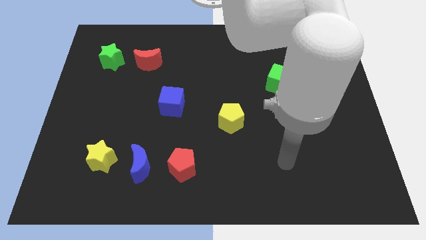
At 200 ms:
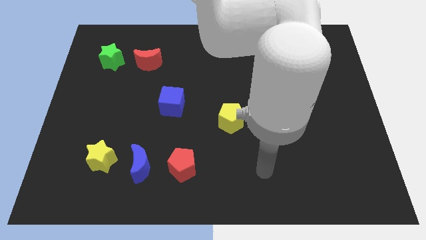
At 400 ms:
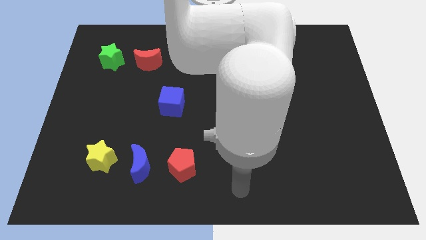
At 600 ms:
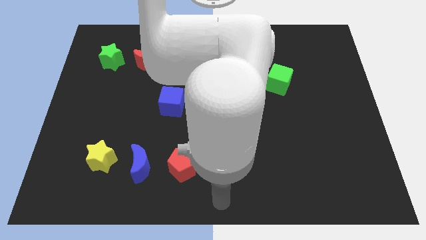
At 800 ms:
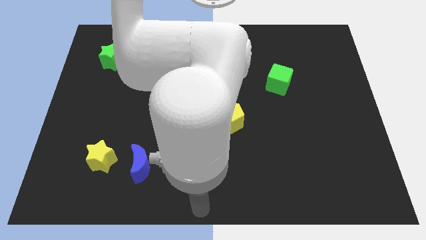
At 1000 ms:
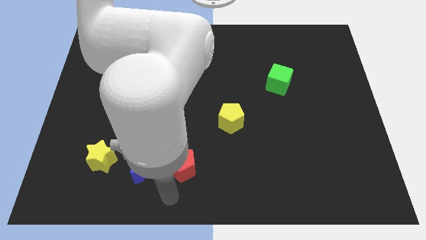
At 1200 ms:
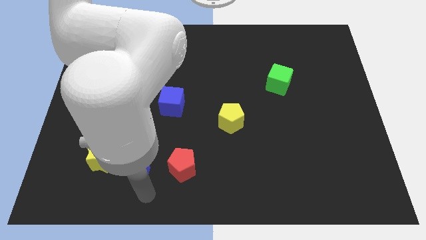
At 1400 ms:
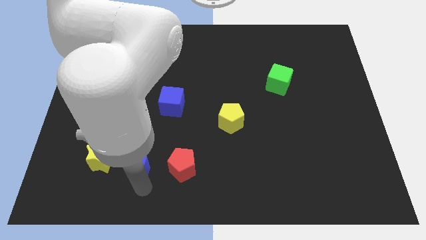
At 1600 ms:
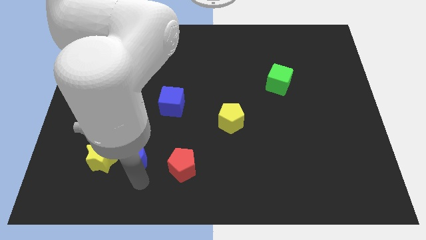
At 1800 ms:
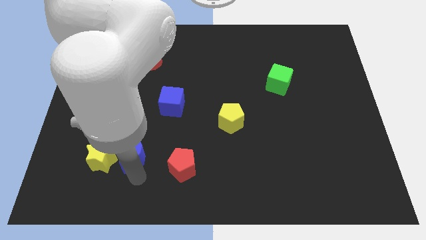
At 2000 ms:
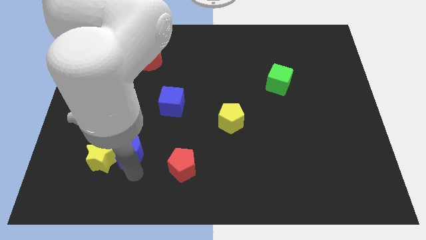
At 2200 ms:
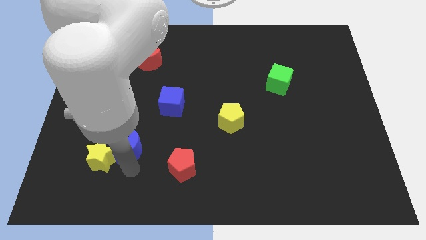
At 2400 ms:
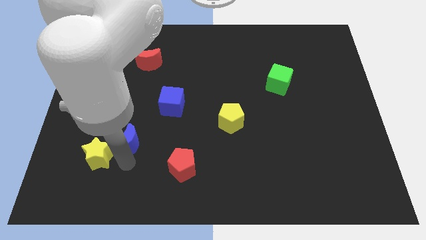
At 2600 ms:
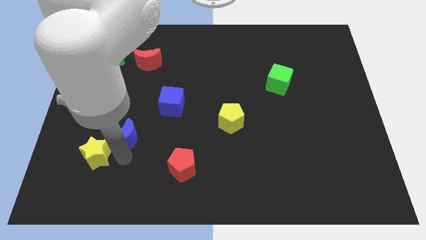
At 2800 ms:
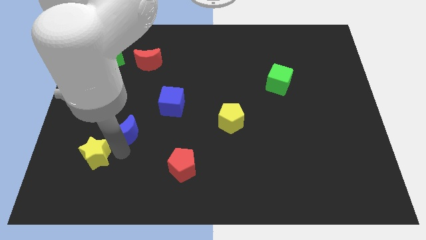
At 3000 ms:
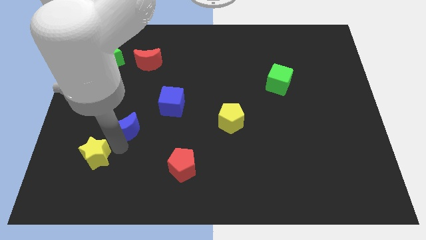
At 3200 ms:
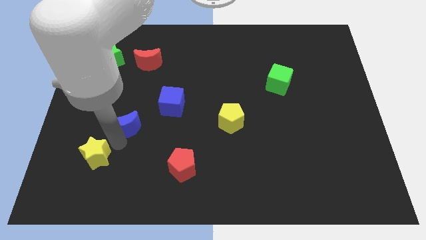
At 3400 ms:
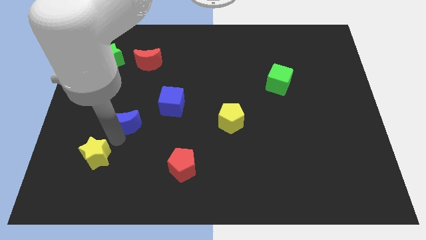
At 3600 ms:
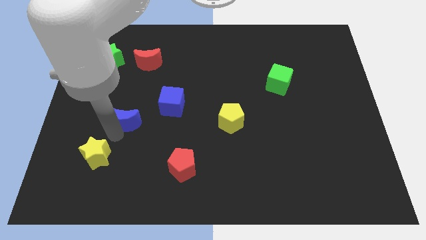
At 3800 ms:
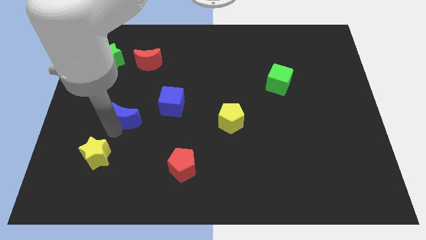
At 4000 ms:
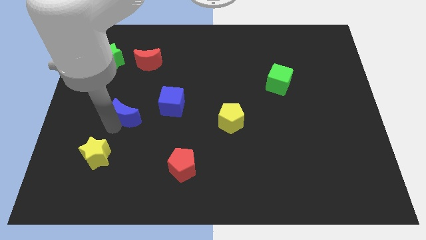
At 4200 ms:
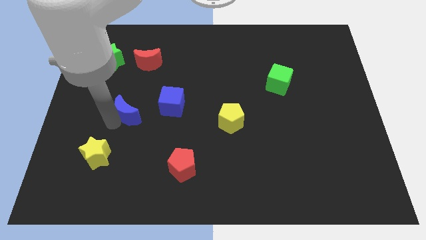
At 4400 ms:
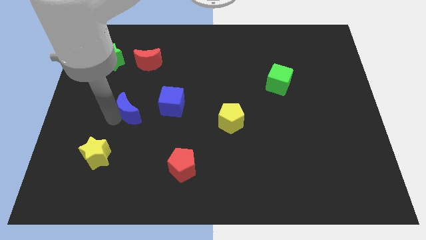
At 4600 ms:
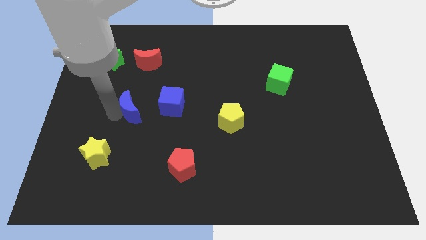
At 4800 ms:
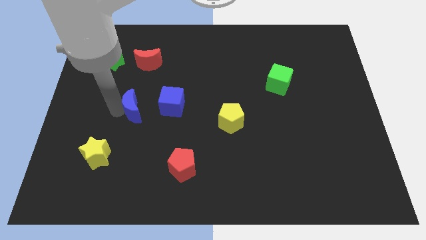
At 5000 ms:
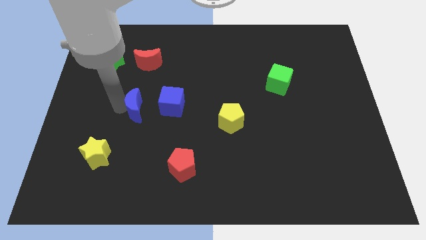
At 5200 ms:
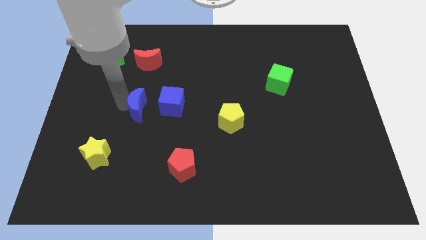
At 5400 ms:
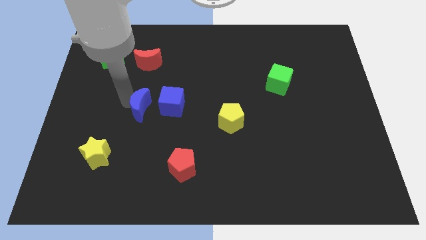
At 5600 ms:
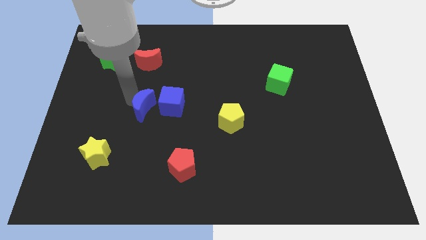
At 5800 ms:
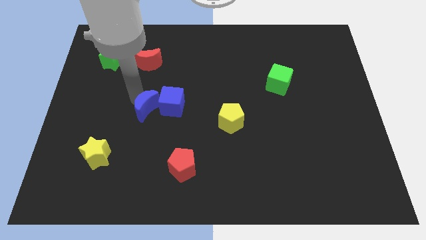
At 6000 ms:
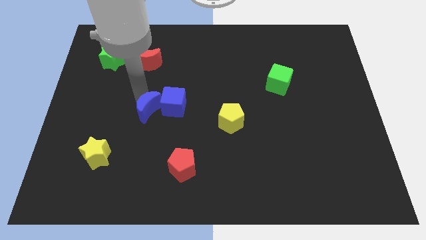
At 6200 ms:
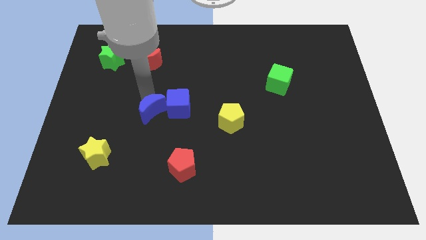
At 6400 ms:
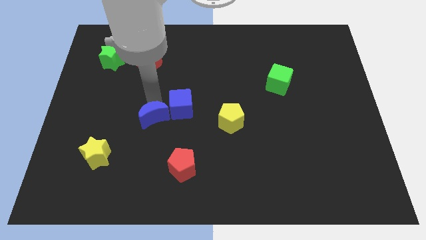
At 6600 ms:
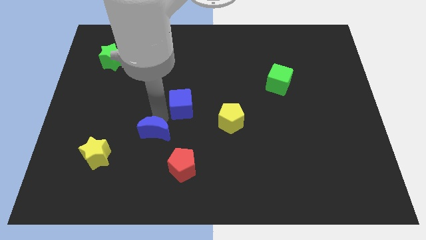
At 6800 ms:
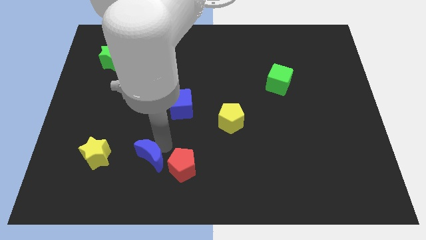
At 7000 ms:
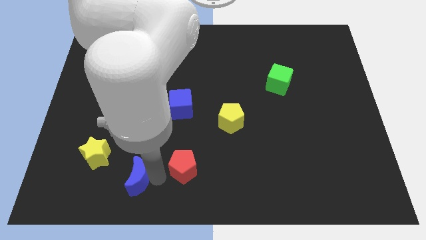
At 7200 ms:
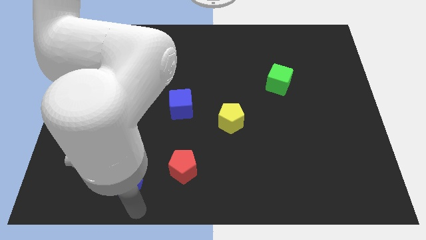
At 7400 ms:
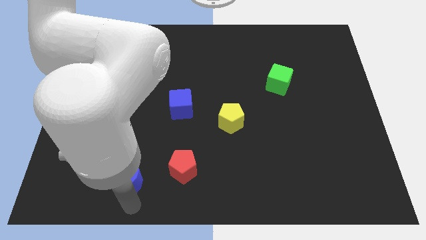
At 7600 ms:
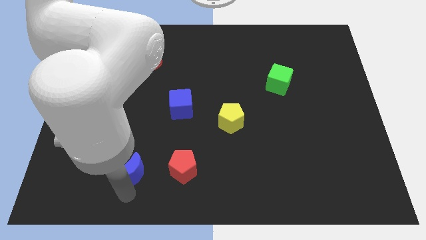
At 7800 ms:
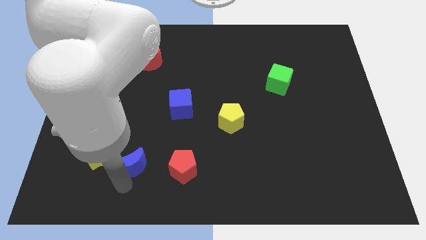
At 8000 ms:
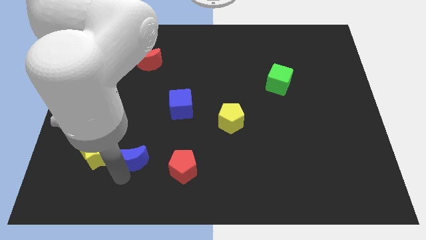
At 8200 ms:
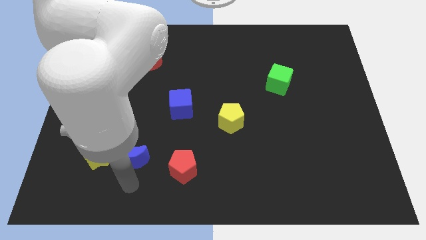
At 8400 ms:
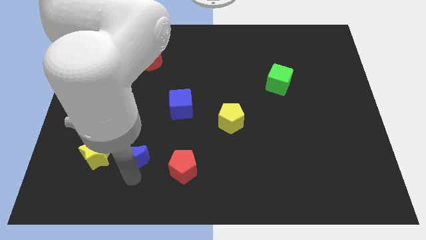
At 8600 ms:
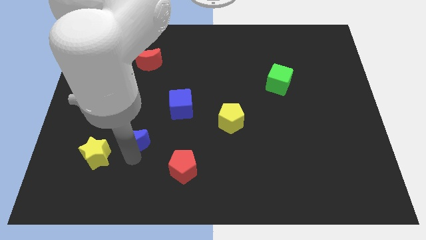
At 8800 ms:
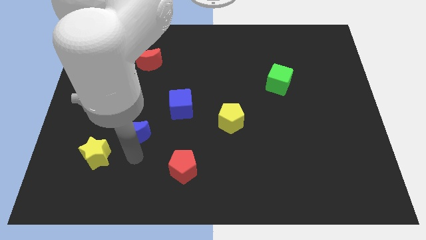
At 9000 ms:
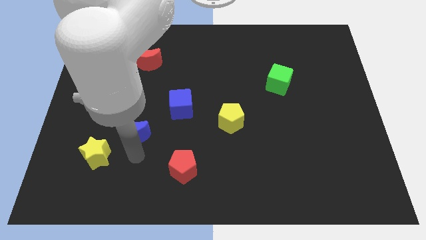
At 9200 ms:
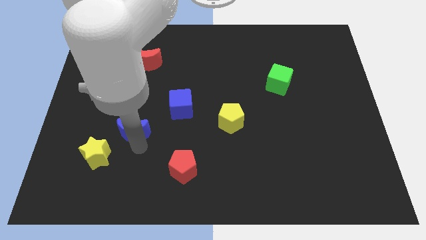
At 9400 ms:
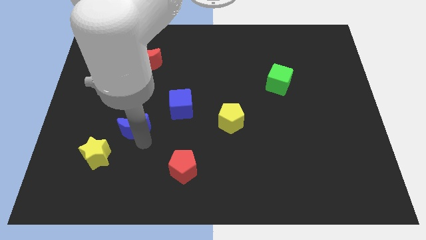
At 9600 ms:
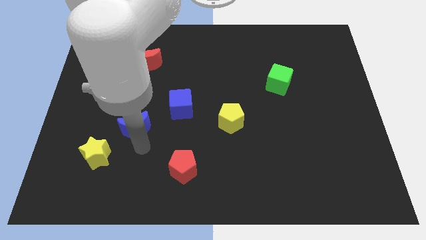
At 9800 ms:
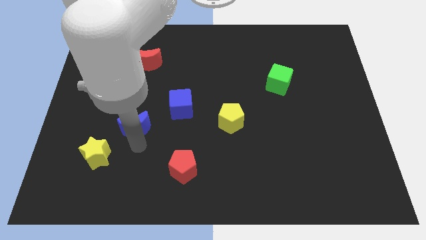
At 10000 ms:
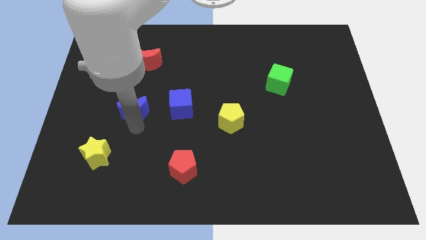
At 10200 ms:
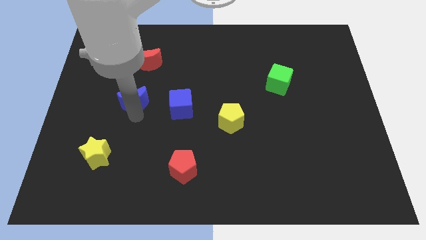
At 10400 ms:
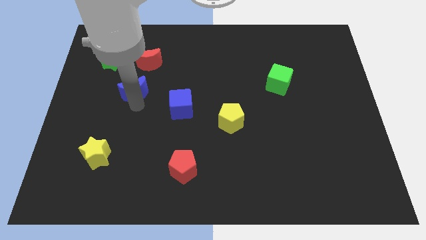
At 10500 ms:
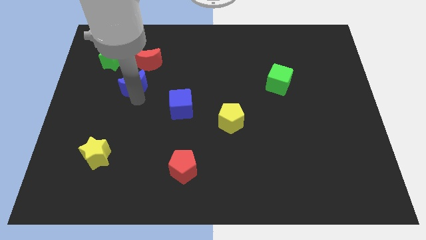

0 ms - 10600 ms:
slide the blue moon to the bottom left of the red moon

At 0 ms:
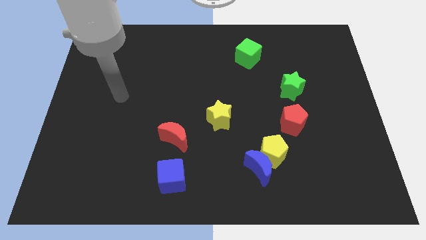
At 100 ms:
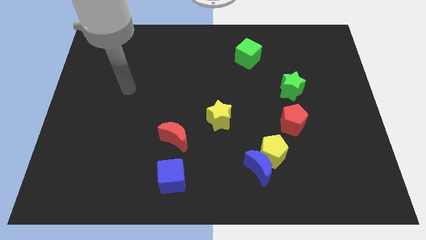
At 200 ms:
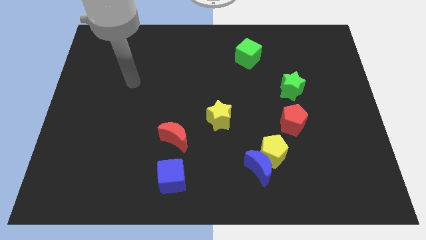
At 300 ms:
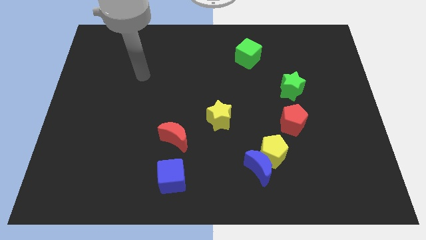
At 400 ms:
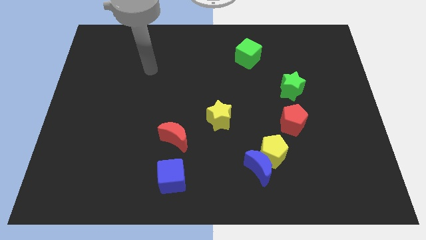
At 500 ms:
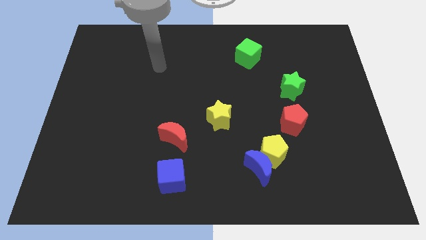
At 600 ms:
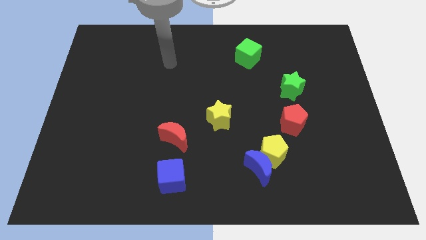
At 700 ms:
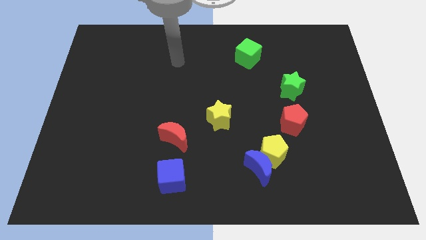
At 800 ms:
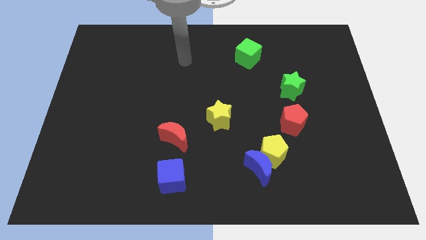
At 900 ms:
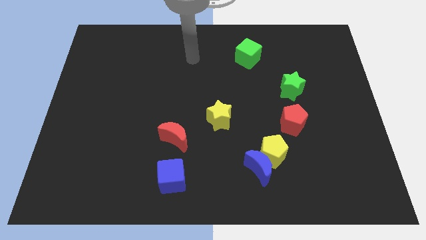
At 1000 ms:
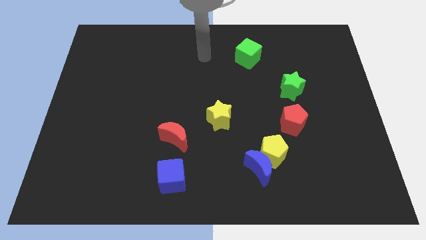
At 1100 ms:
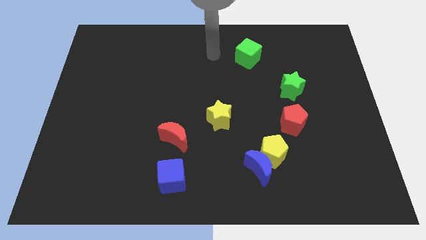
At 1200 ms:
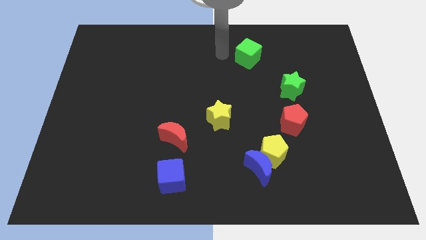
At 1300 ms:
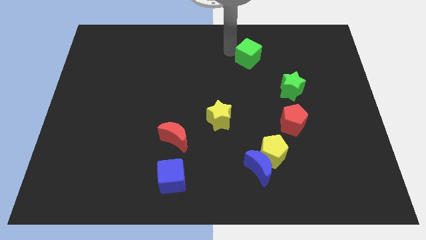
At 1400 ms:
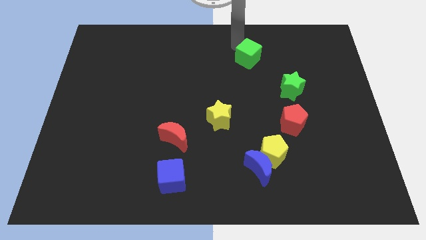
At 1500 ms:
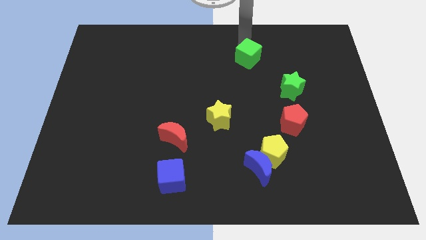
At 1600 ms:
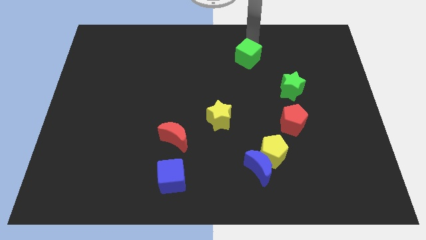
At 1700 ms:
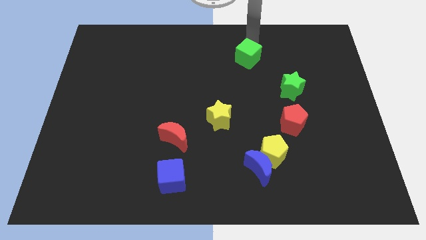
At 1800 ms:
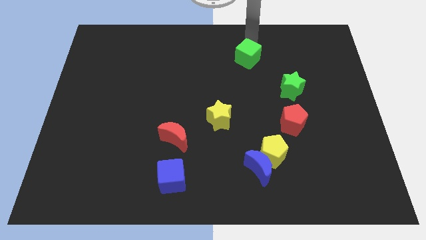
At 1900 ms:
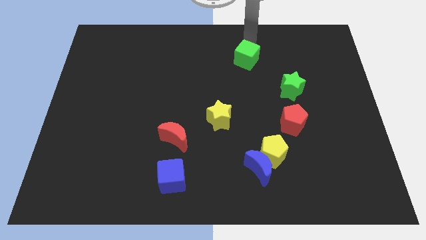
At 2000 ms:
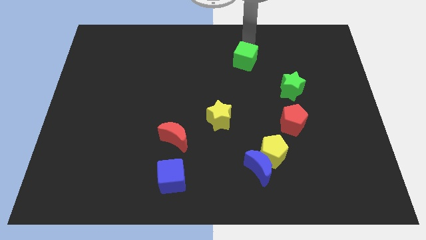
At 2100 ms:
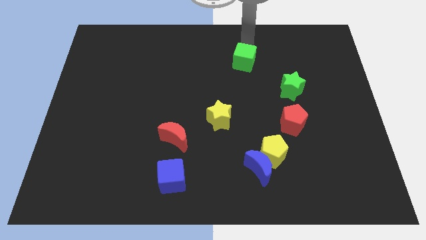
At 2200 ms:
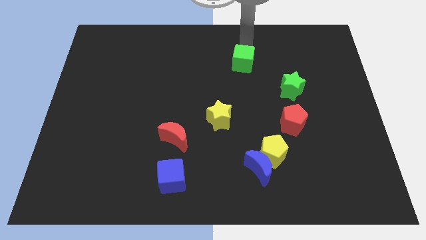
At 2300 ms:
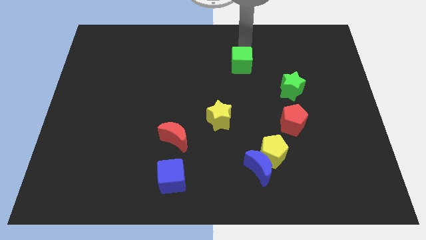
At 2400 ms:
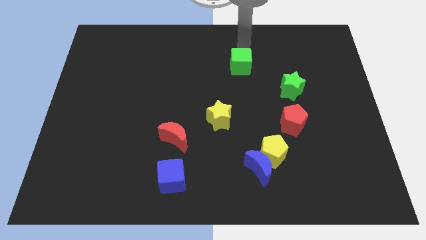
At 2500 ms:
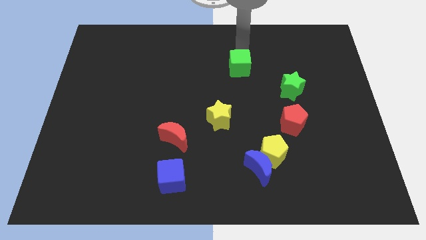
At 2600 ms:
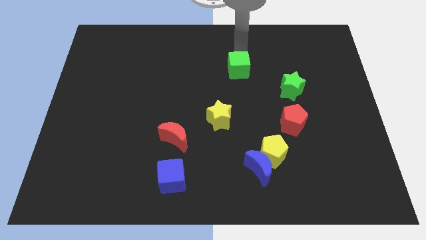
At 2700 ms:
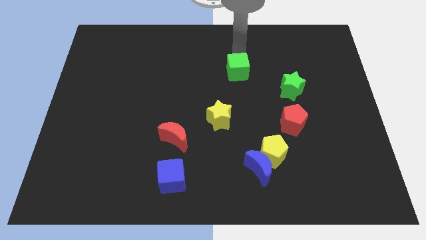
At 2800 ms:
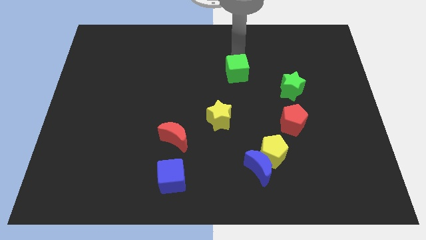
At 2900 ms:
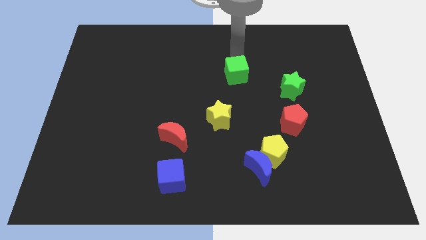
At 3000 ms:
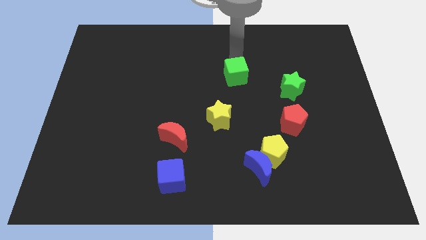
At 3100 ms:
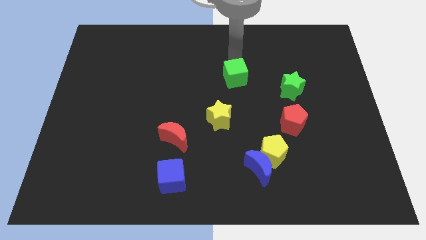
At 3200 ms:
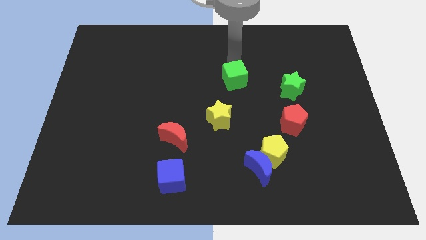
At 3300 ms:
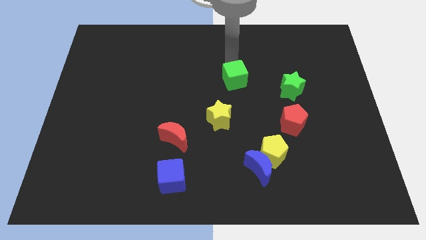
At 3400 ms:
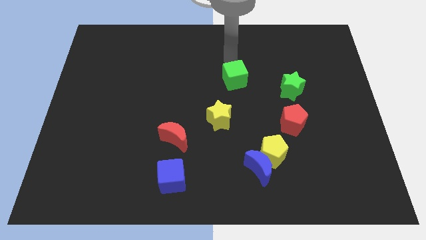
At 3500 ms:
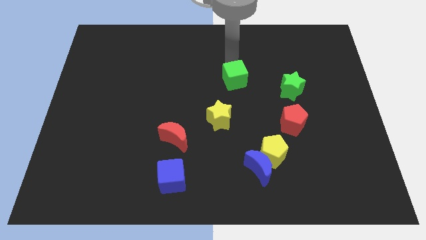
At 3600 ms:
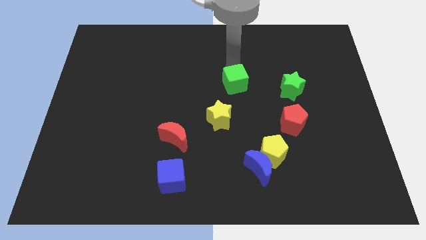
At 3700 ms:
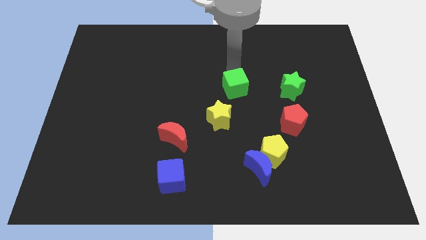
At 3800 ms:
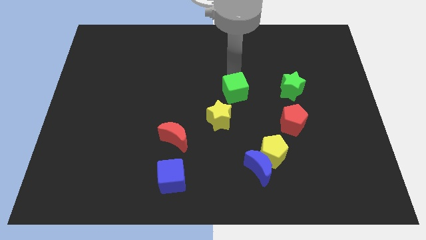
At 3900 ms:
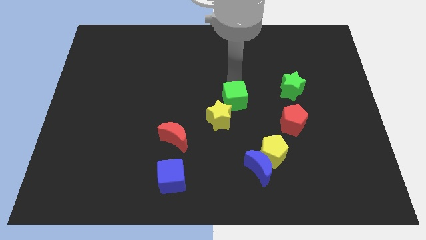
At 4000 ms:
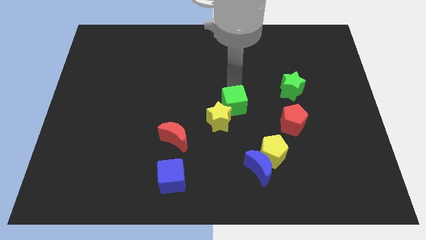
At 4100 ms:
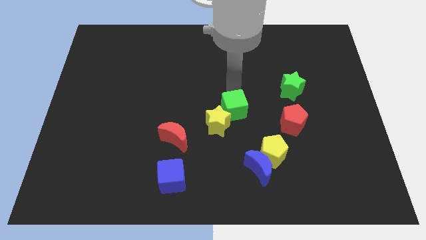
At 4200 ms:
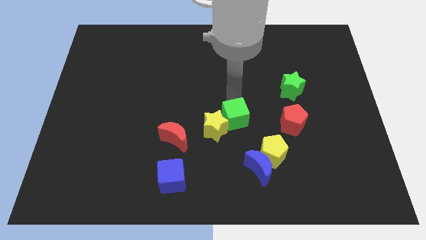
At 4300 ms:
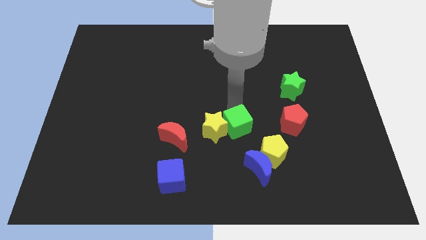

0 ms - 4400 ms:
move the green cube diagonally down and to the right of the yellow star
